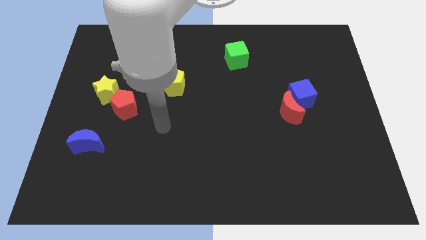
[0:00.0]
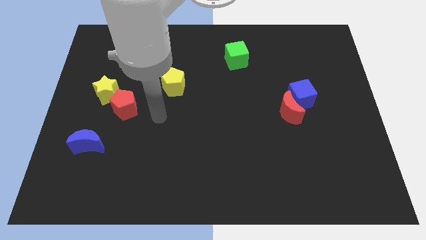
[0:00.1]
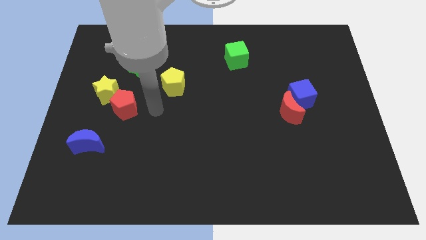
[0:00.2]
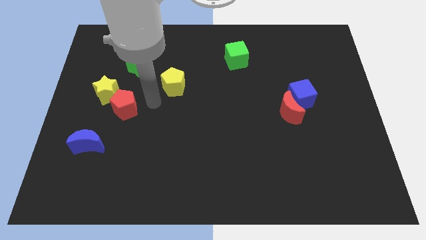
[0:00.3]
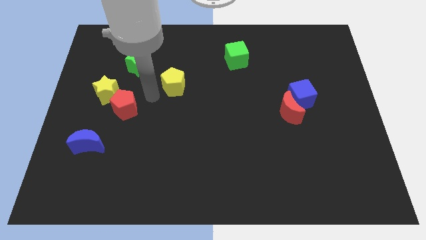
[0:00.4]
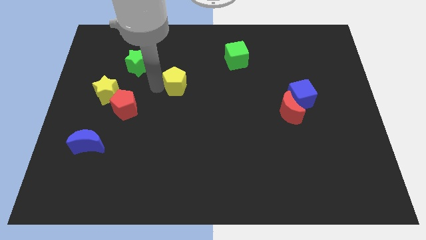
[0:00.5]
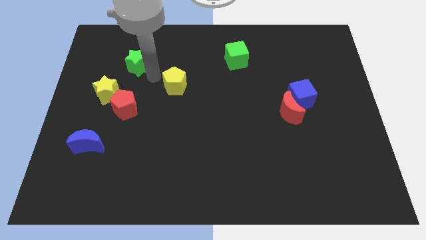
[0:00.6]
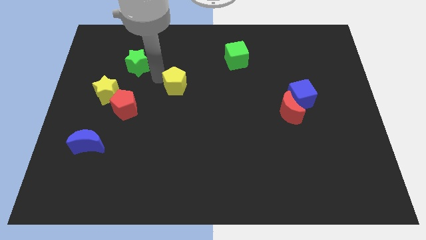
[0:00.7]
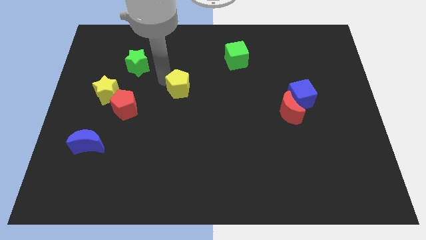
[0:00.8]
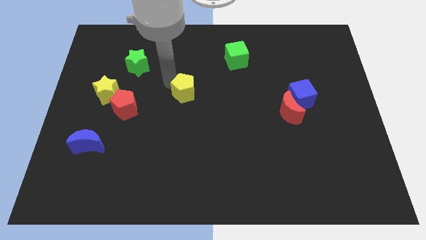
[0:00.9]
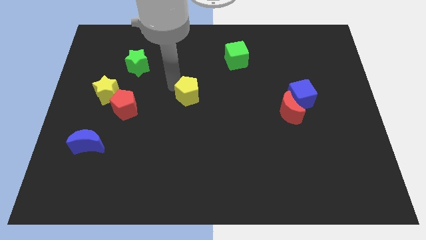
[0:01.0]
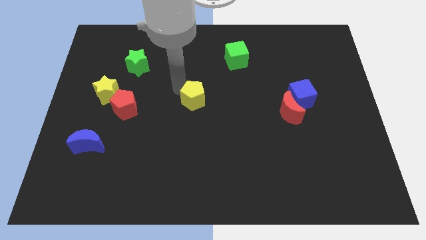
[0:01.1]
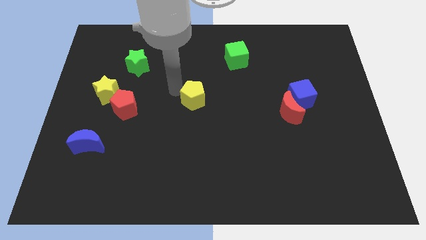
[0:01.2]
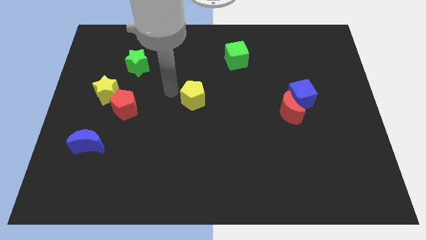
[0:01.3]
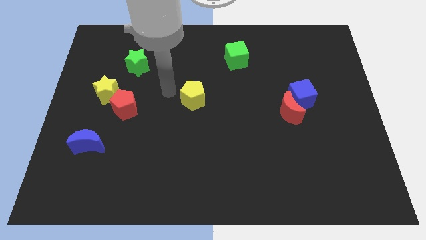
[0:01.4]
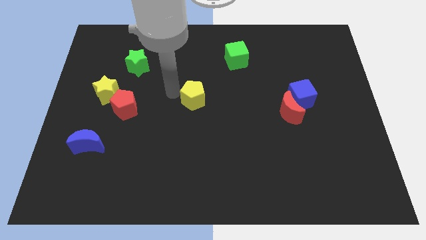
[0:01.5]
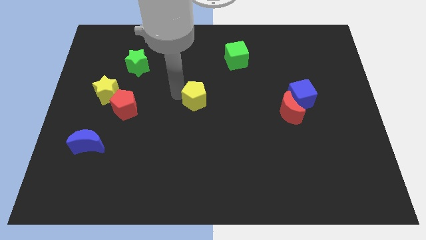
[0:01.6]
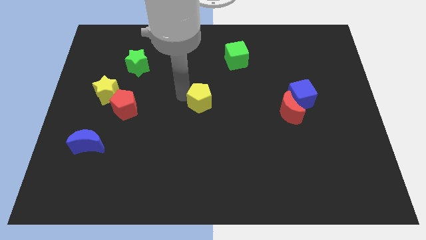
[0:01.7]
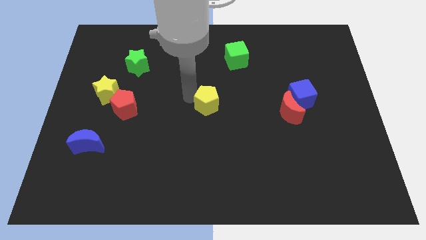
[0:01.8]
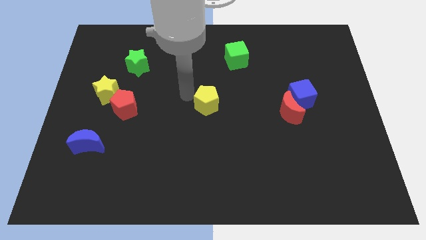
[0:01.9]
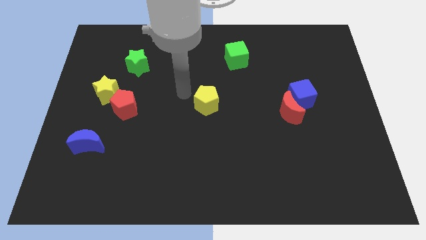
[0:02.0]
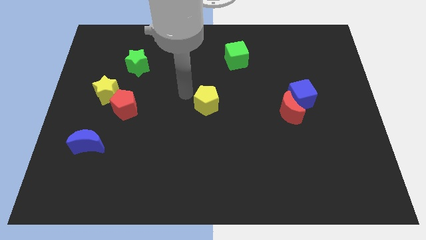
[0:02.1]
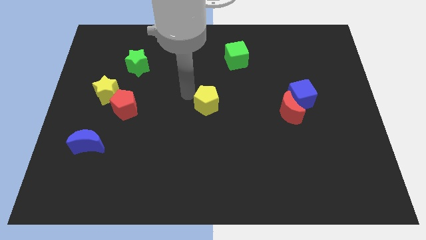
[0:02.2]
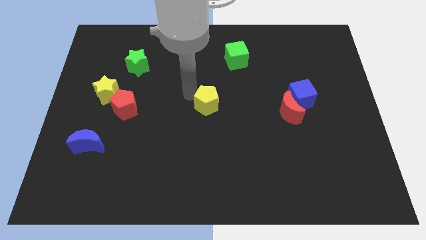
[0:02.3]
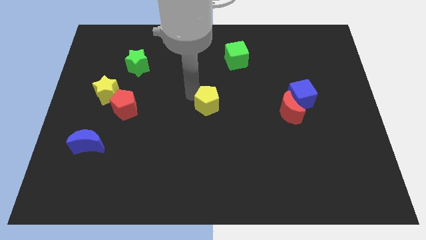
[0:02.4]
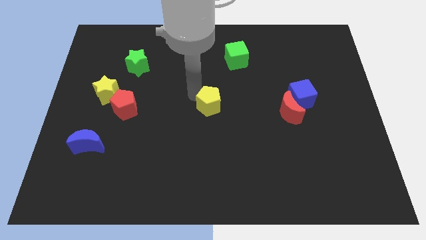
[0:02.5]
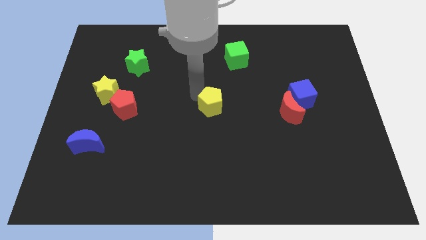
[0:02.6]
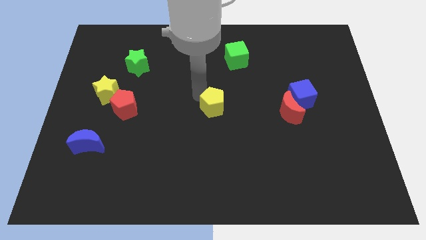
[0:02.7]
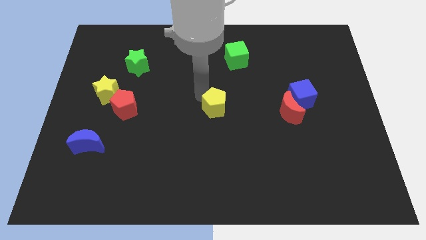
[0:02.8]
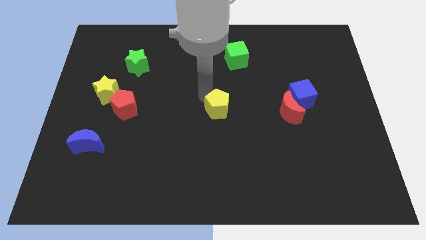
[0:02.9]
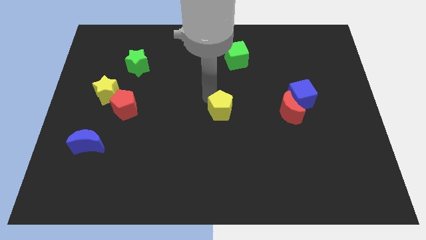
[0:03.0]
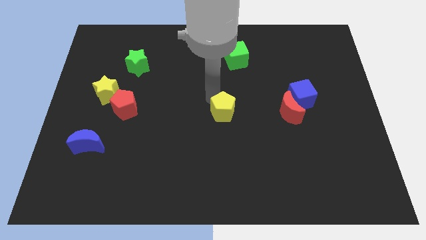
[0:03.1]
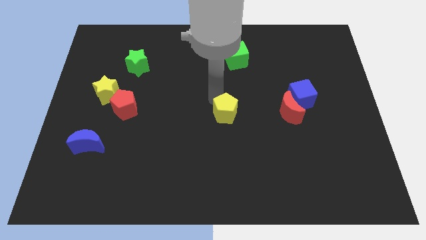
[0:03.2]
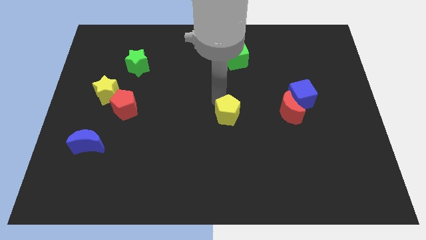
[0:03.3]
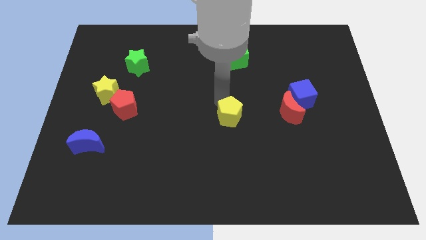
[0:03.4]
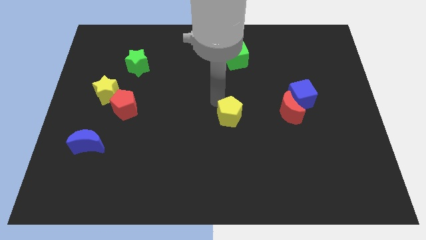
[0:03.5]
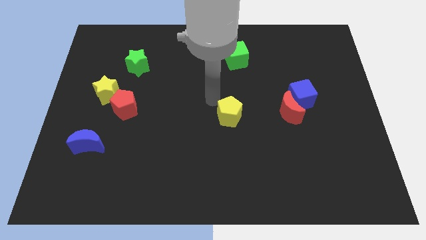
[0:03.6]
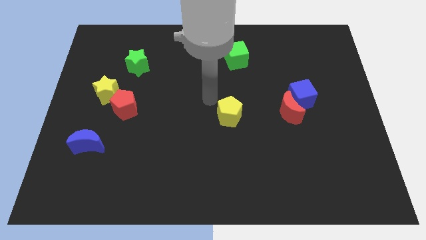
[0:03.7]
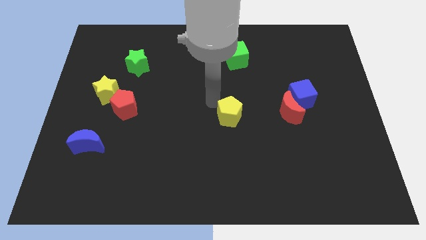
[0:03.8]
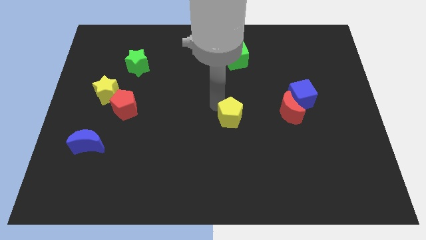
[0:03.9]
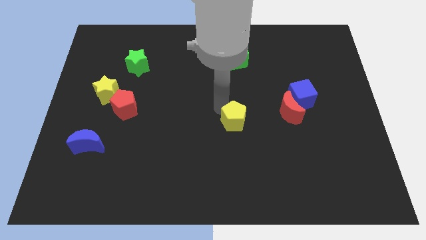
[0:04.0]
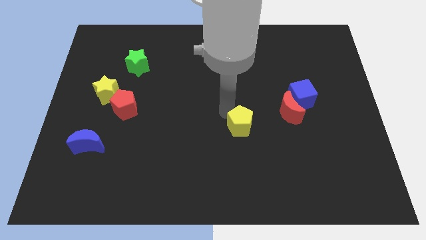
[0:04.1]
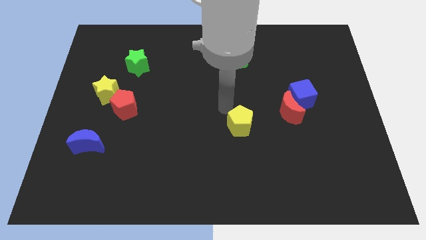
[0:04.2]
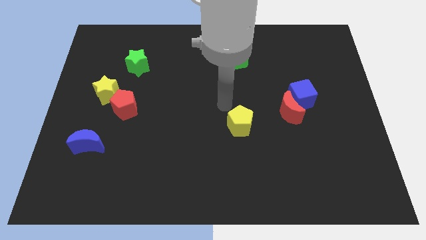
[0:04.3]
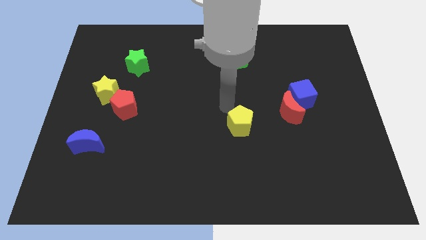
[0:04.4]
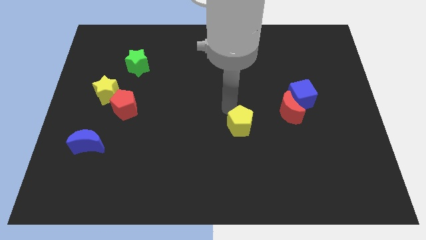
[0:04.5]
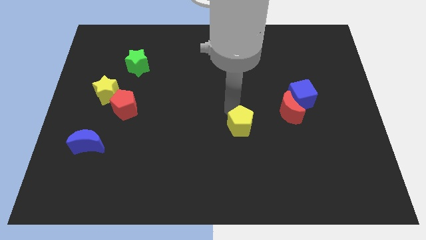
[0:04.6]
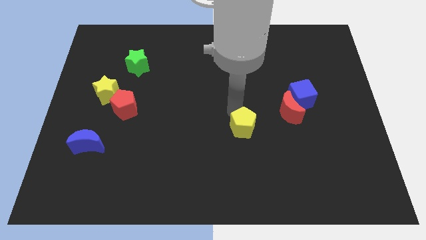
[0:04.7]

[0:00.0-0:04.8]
push the yellow pentagon diagonally down and right

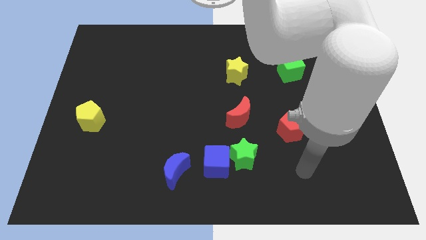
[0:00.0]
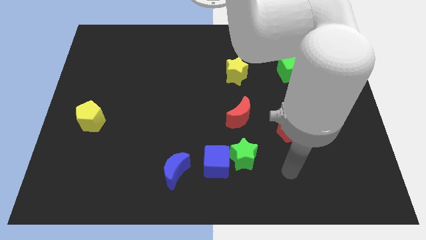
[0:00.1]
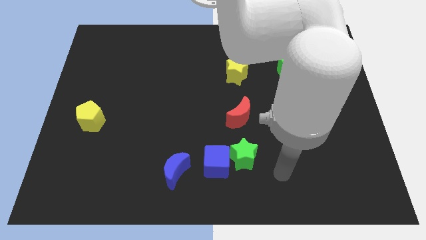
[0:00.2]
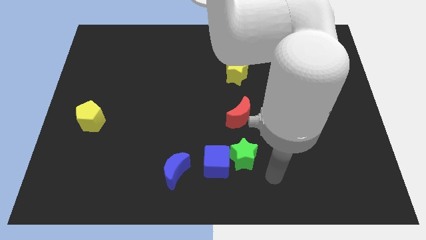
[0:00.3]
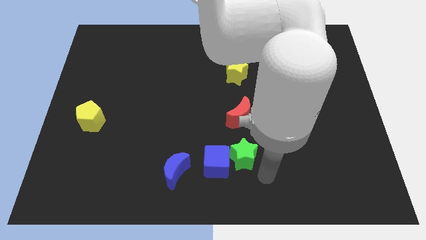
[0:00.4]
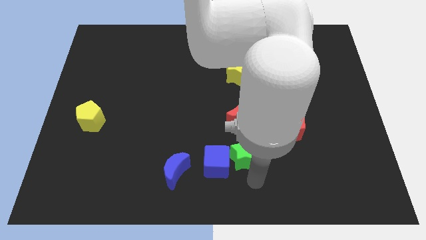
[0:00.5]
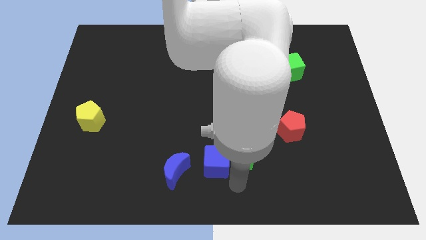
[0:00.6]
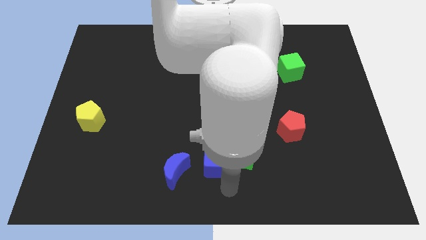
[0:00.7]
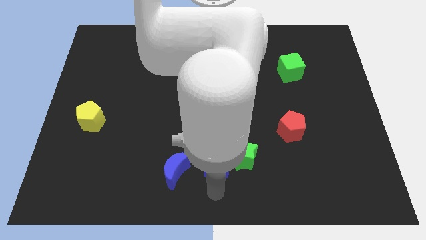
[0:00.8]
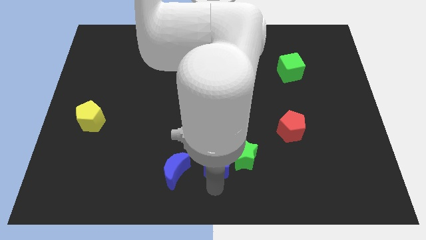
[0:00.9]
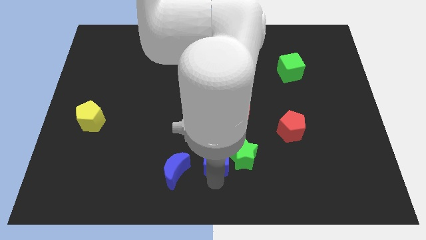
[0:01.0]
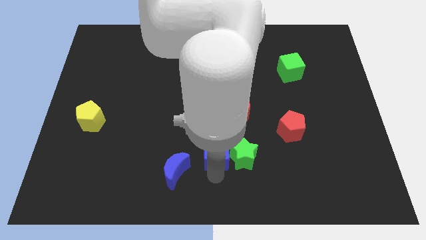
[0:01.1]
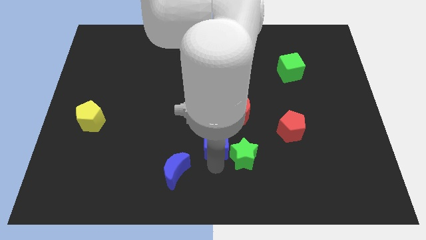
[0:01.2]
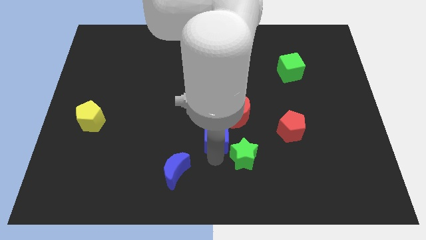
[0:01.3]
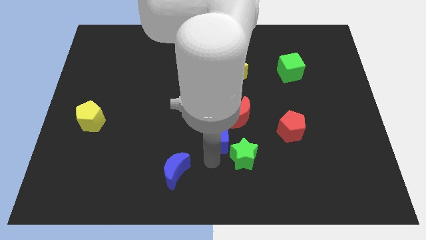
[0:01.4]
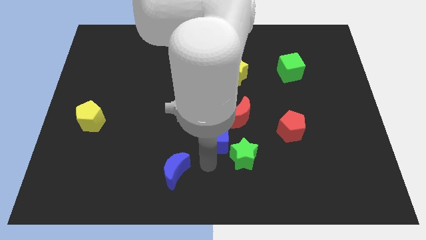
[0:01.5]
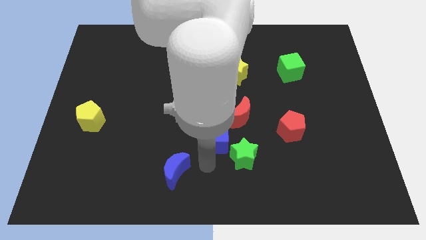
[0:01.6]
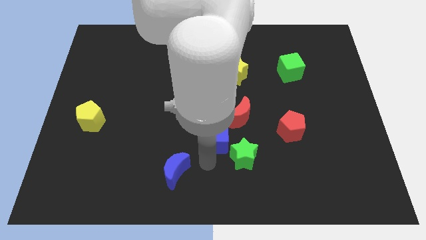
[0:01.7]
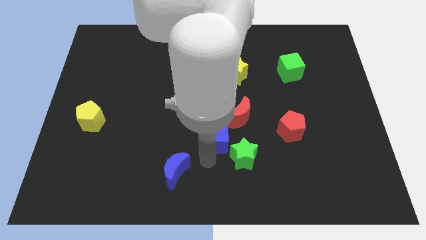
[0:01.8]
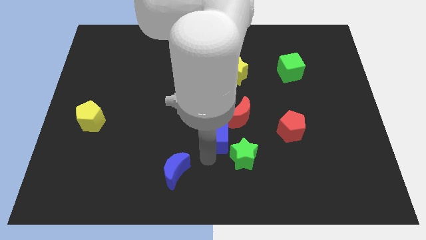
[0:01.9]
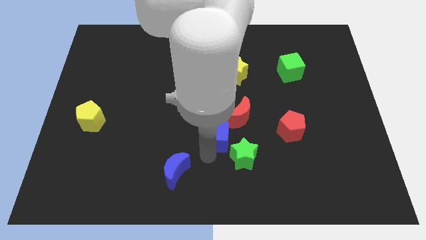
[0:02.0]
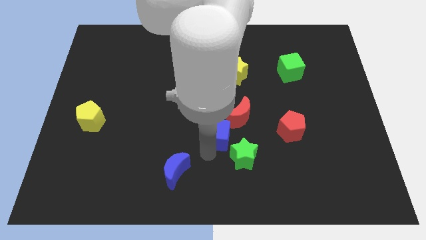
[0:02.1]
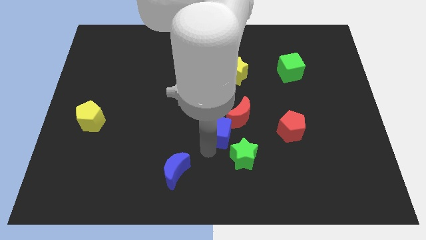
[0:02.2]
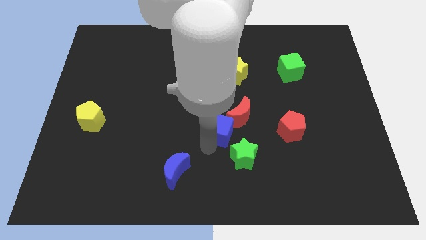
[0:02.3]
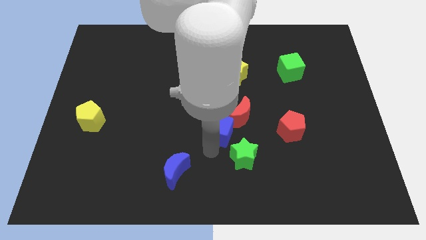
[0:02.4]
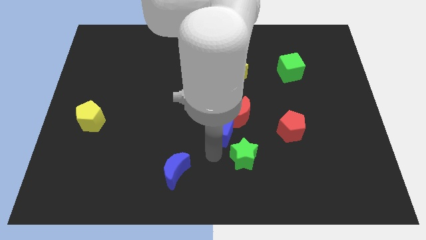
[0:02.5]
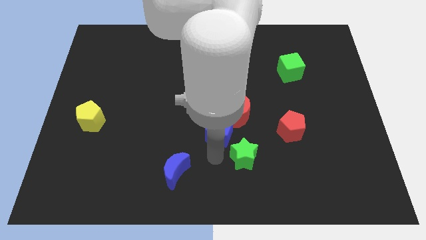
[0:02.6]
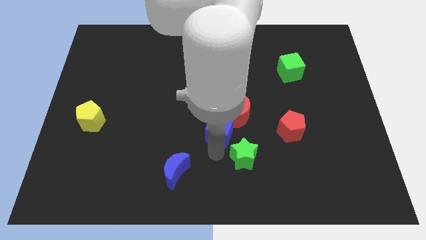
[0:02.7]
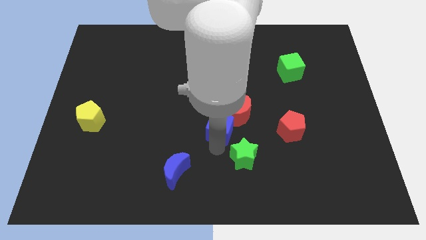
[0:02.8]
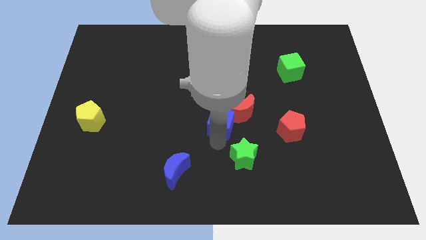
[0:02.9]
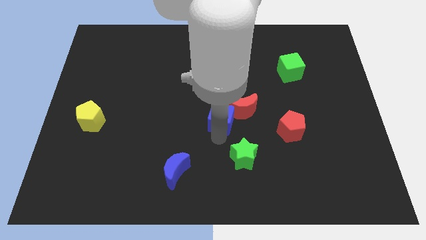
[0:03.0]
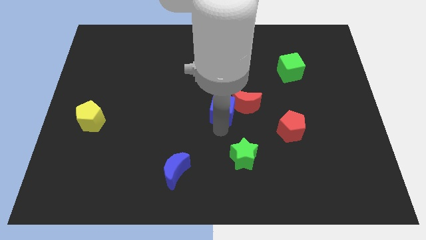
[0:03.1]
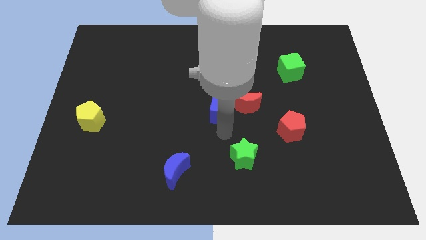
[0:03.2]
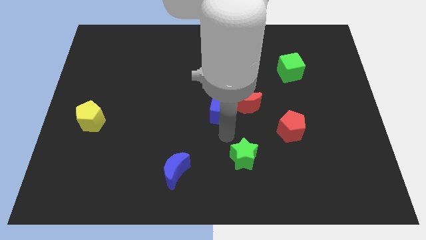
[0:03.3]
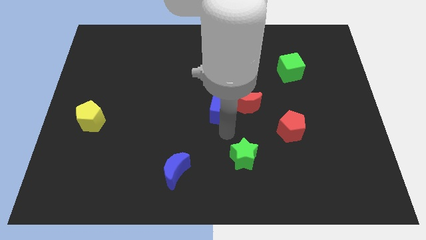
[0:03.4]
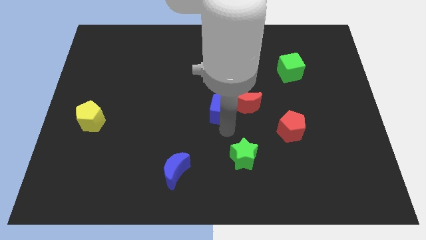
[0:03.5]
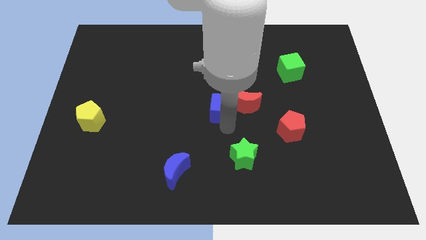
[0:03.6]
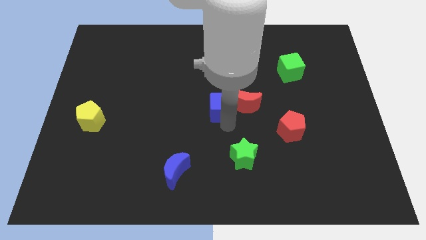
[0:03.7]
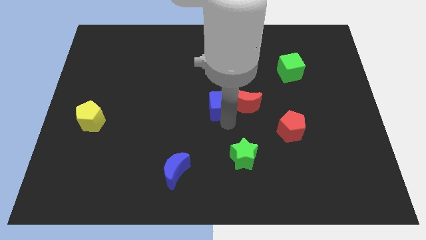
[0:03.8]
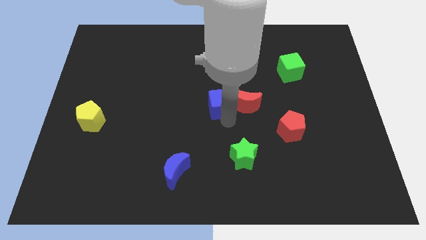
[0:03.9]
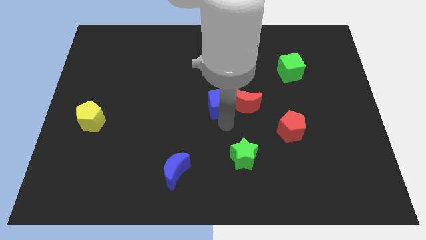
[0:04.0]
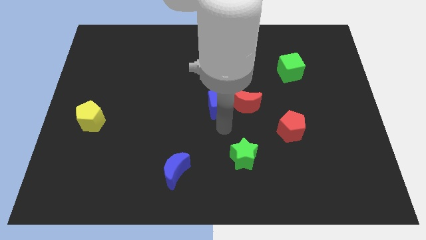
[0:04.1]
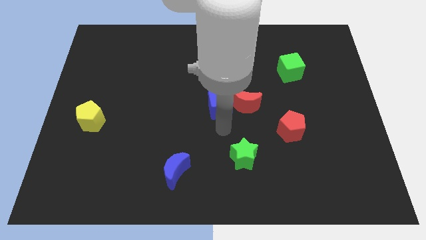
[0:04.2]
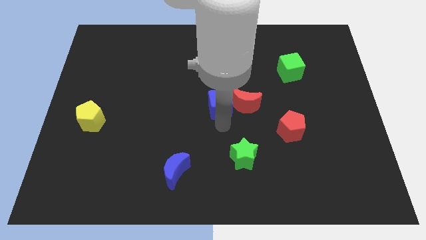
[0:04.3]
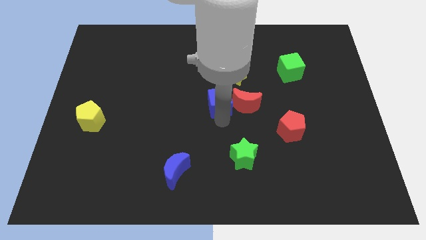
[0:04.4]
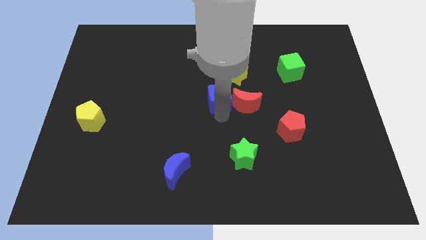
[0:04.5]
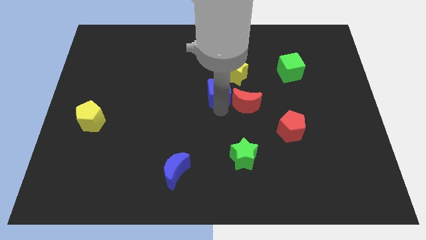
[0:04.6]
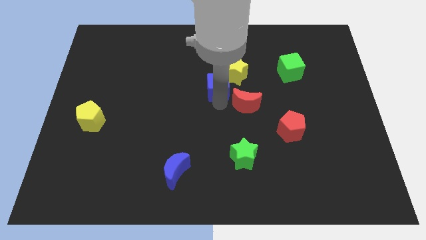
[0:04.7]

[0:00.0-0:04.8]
slide the blue cube upwards
